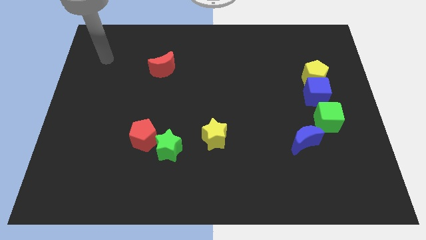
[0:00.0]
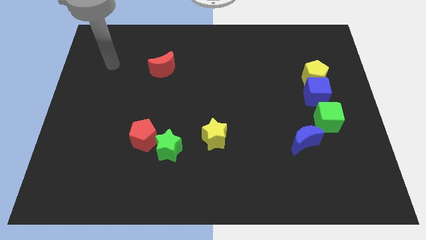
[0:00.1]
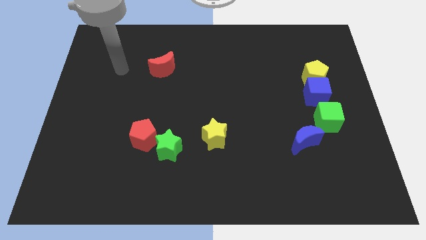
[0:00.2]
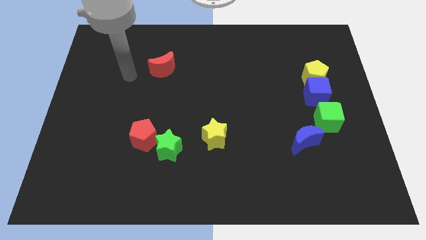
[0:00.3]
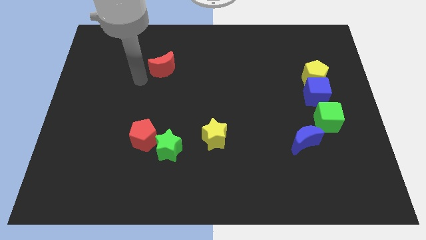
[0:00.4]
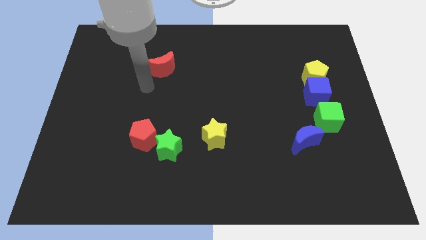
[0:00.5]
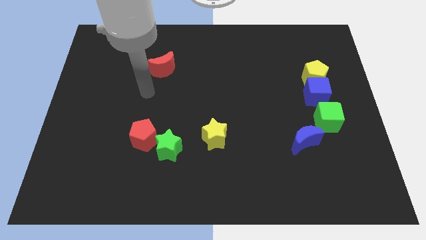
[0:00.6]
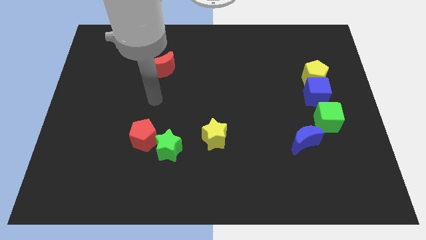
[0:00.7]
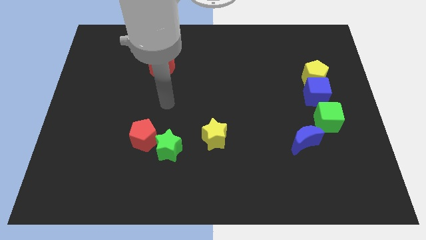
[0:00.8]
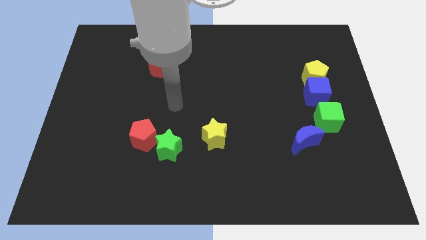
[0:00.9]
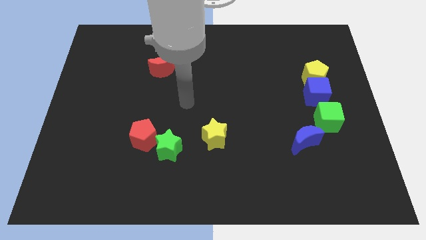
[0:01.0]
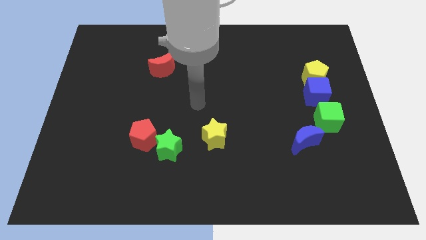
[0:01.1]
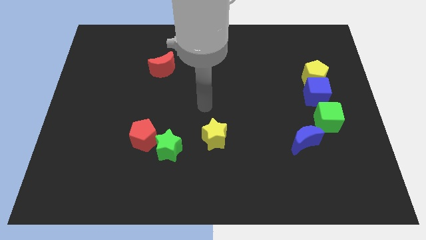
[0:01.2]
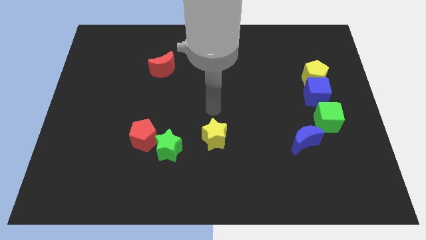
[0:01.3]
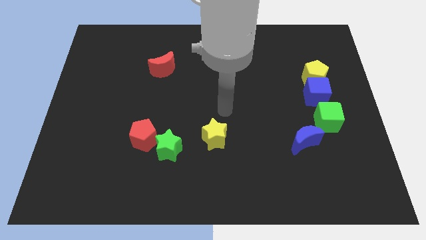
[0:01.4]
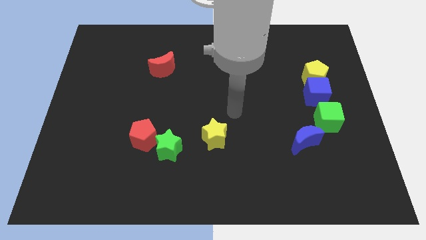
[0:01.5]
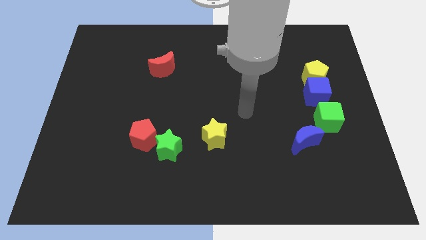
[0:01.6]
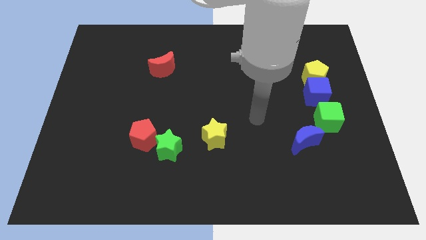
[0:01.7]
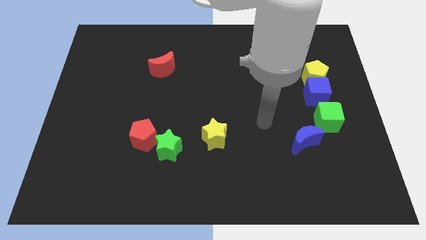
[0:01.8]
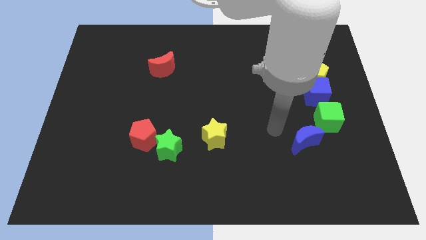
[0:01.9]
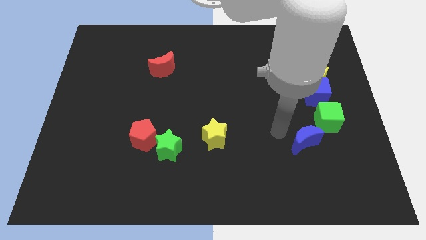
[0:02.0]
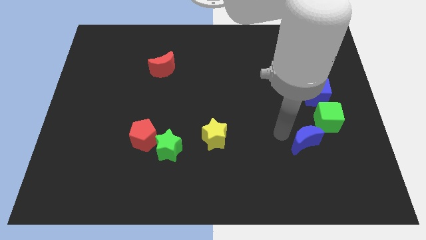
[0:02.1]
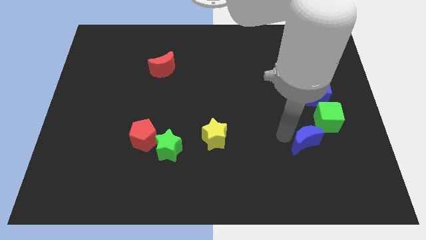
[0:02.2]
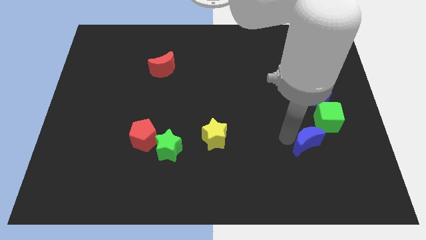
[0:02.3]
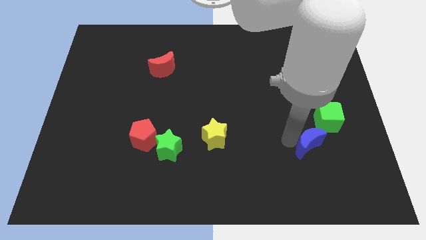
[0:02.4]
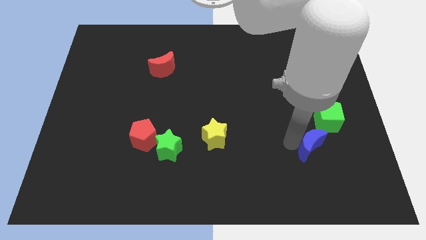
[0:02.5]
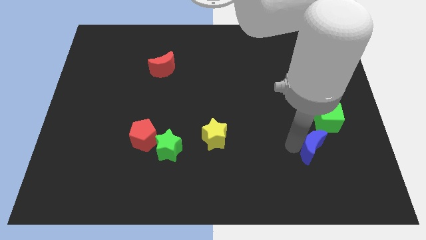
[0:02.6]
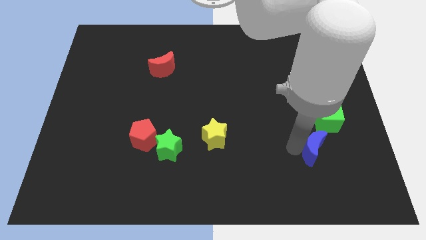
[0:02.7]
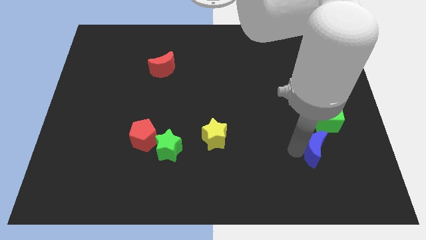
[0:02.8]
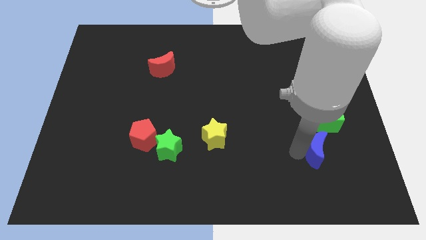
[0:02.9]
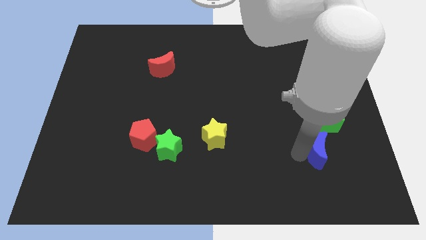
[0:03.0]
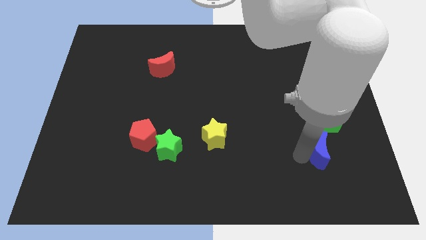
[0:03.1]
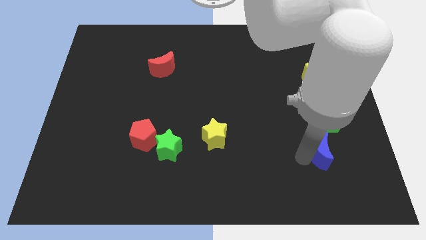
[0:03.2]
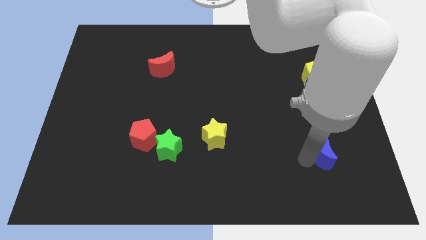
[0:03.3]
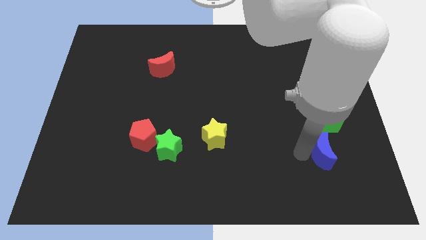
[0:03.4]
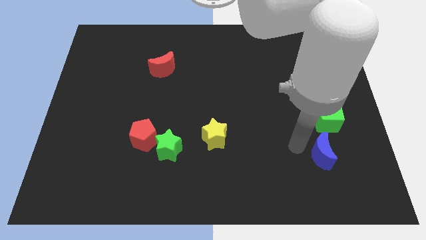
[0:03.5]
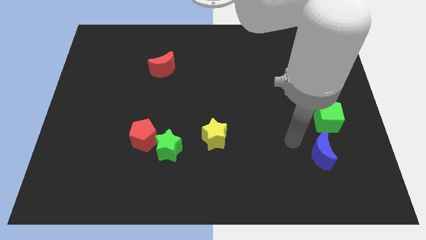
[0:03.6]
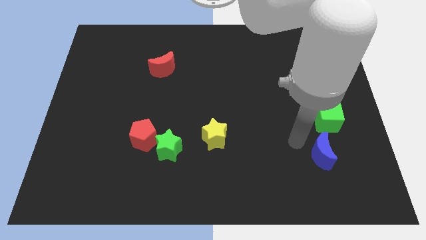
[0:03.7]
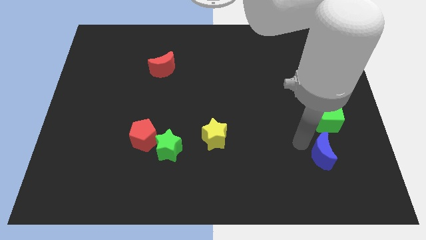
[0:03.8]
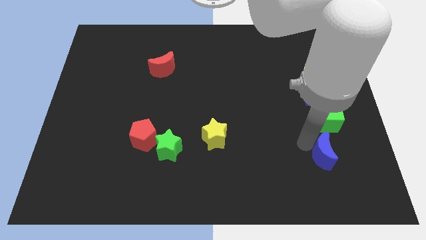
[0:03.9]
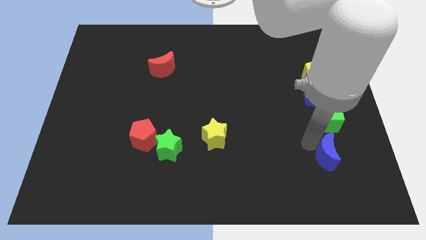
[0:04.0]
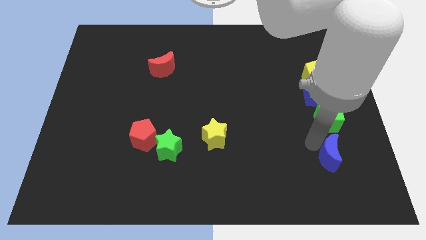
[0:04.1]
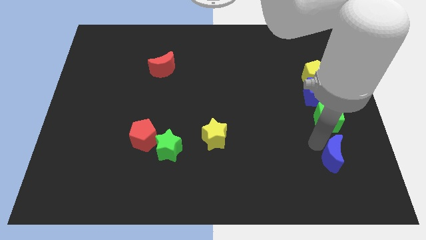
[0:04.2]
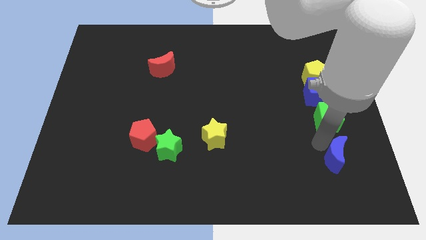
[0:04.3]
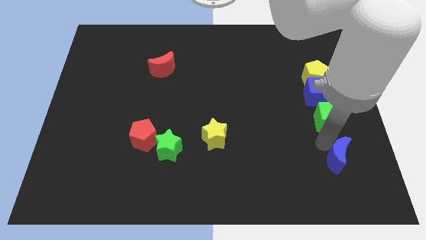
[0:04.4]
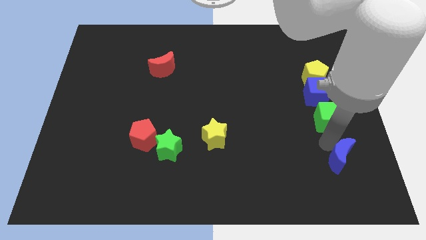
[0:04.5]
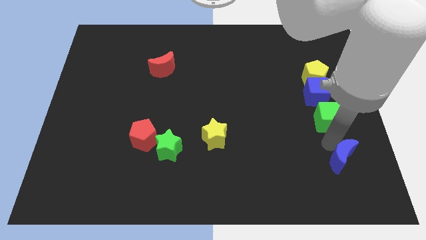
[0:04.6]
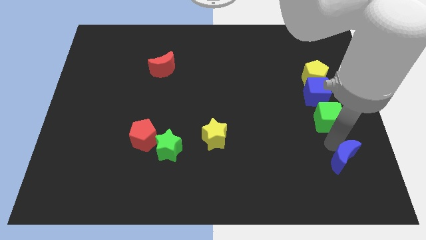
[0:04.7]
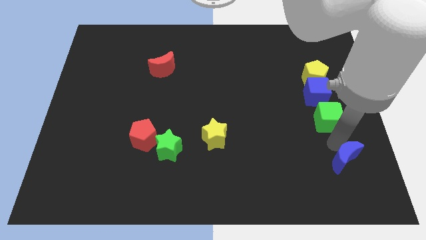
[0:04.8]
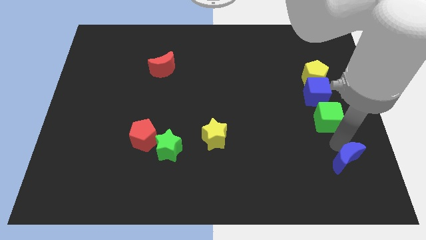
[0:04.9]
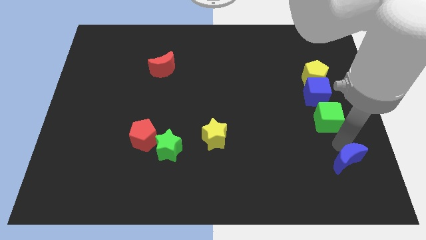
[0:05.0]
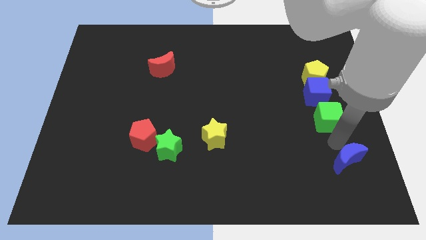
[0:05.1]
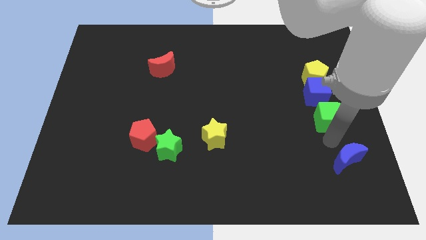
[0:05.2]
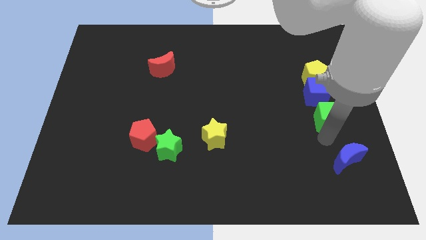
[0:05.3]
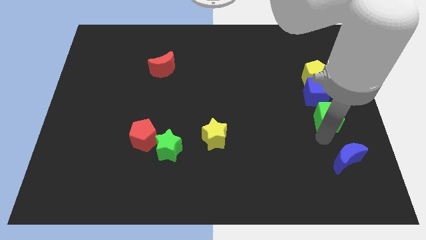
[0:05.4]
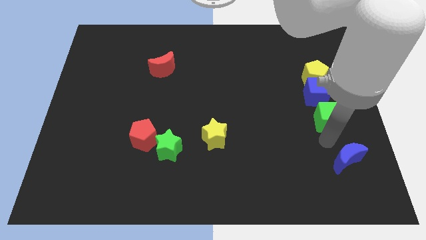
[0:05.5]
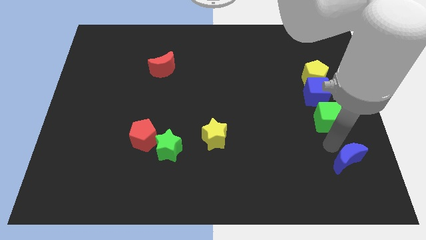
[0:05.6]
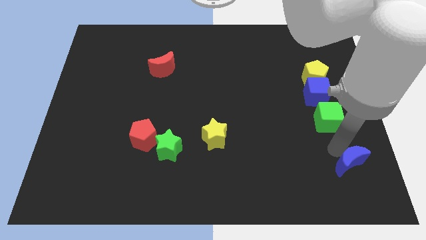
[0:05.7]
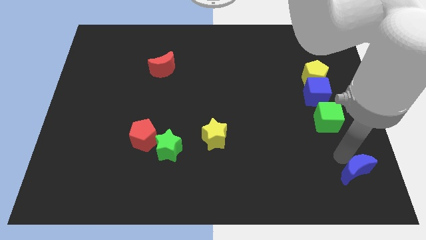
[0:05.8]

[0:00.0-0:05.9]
slide the blue moon to the bottom right of the board
